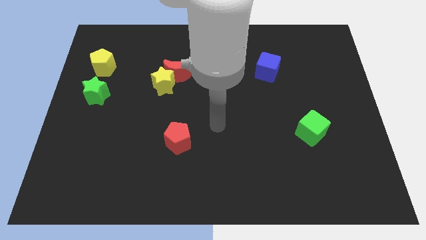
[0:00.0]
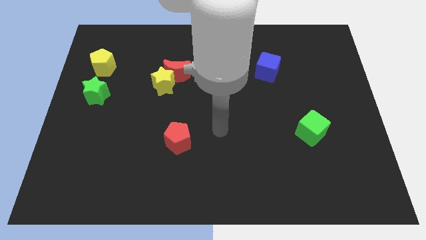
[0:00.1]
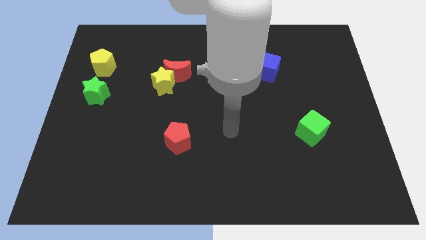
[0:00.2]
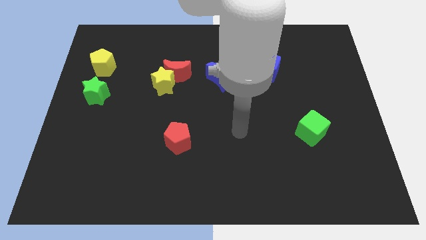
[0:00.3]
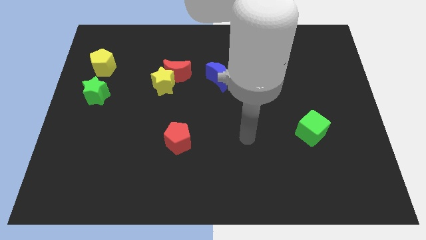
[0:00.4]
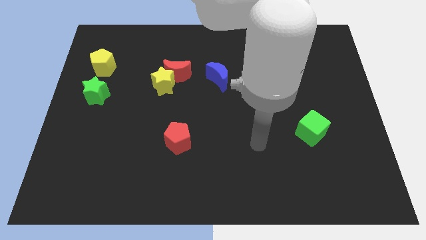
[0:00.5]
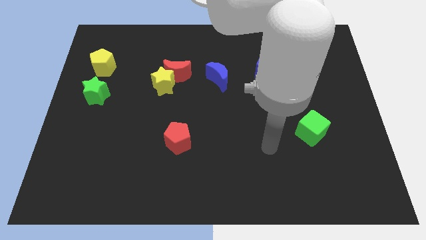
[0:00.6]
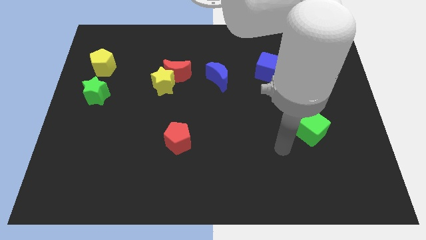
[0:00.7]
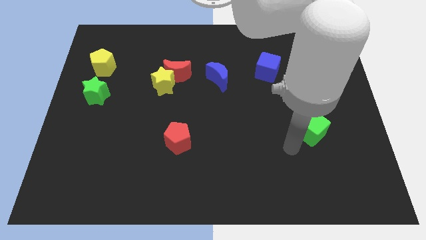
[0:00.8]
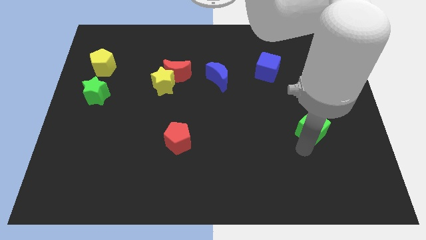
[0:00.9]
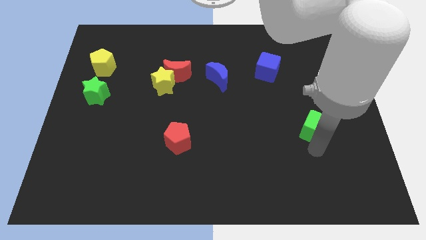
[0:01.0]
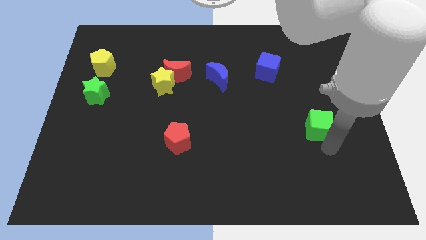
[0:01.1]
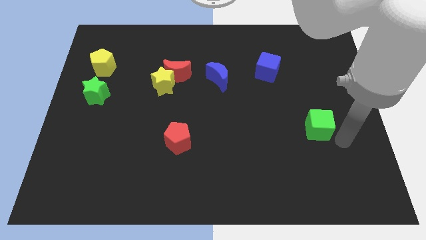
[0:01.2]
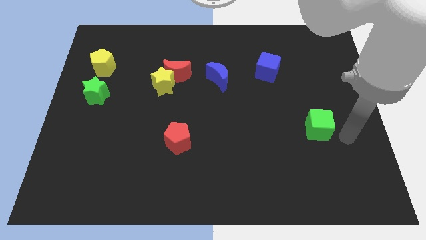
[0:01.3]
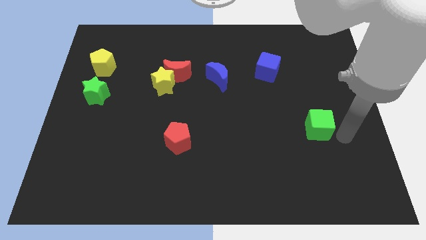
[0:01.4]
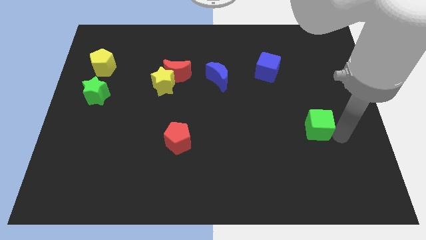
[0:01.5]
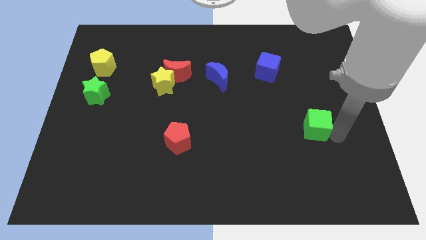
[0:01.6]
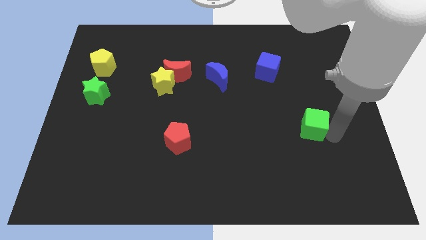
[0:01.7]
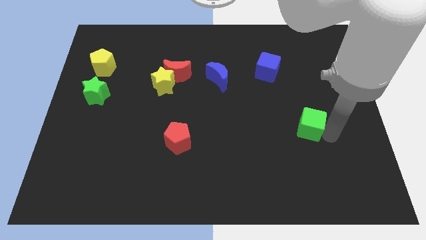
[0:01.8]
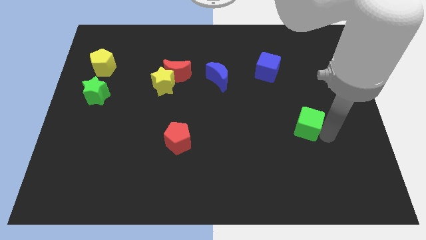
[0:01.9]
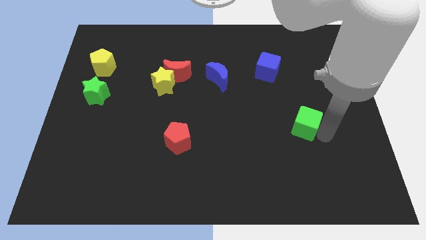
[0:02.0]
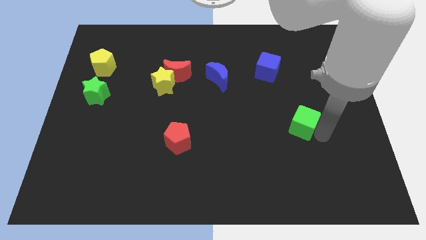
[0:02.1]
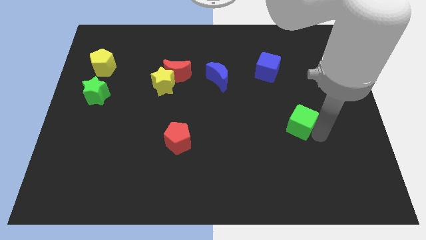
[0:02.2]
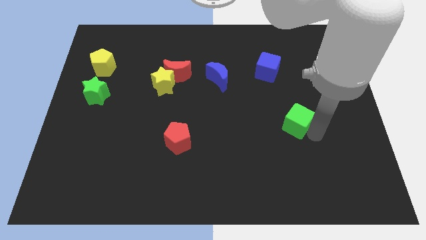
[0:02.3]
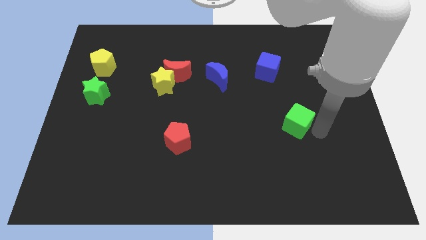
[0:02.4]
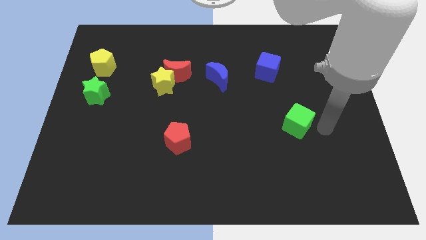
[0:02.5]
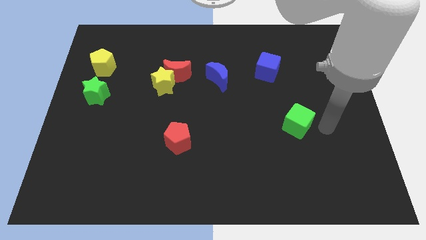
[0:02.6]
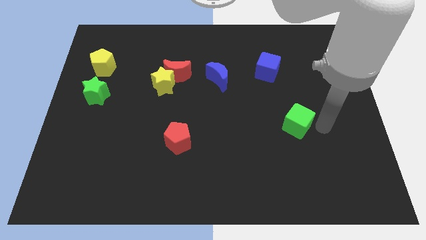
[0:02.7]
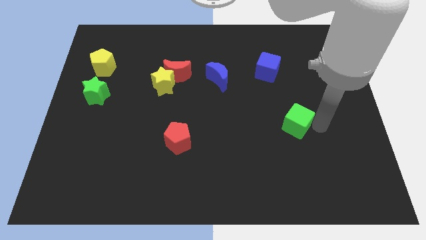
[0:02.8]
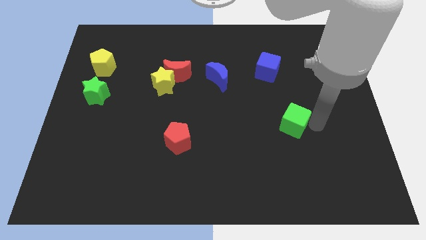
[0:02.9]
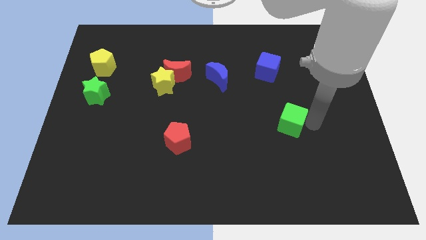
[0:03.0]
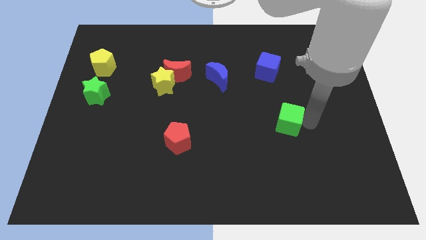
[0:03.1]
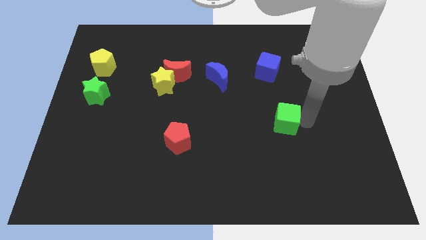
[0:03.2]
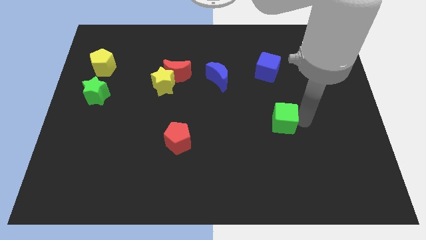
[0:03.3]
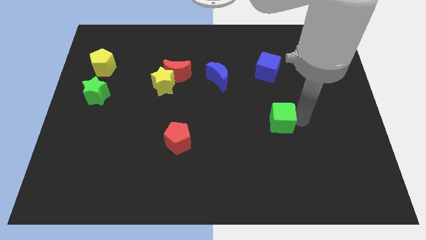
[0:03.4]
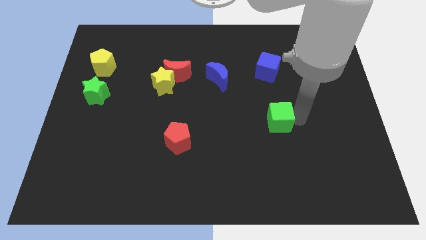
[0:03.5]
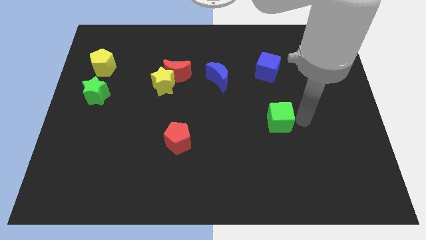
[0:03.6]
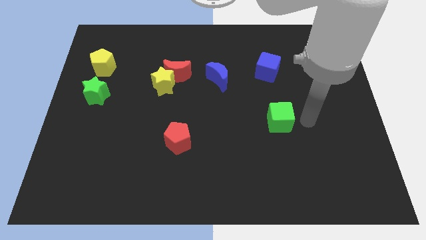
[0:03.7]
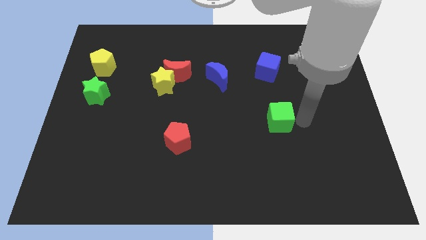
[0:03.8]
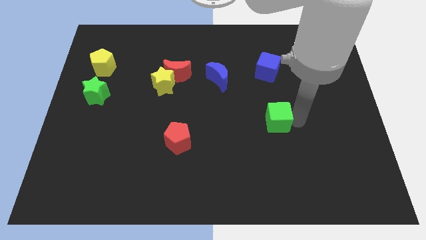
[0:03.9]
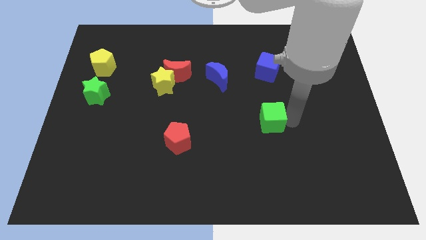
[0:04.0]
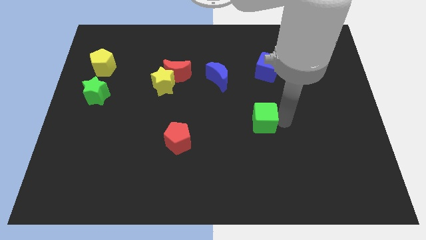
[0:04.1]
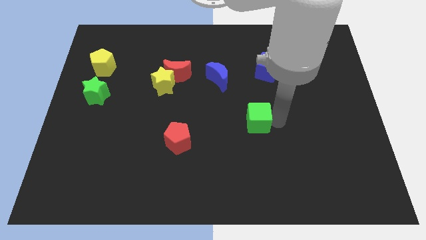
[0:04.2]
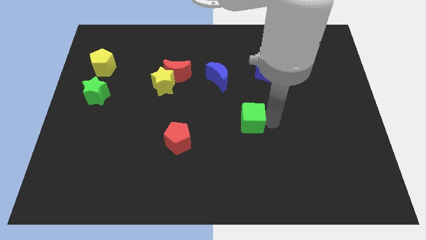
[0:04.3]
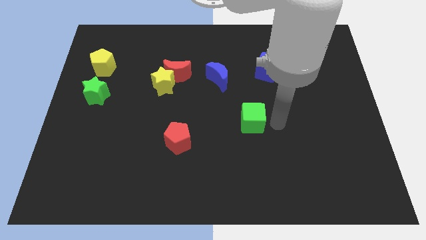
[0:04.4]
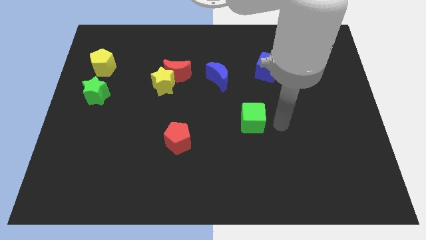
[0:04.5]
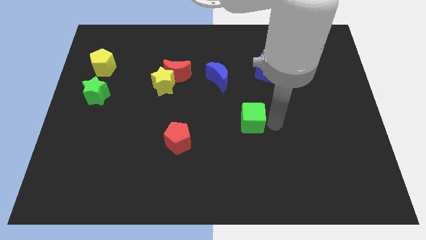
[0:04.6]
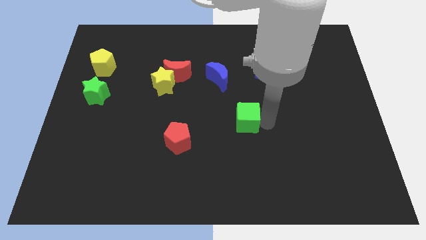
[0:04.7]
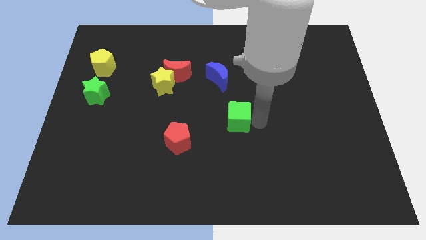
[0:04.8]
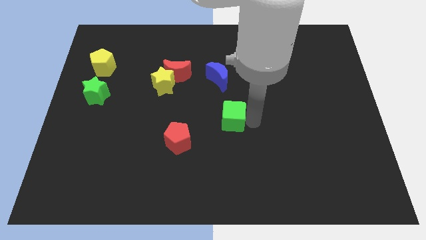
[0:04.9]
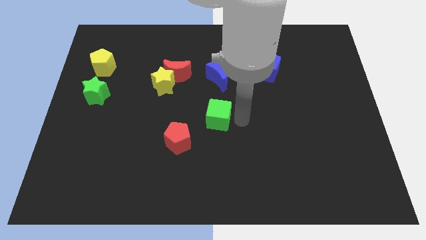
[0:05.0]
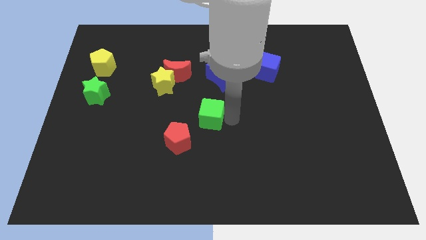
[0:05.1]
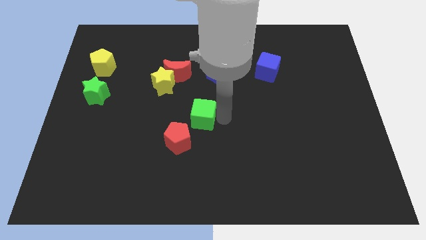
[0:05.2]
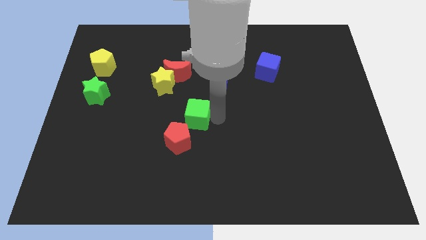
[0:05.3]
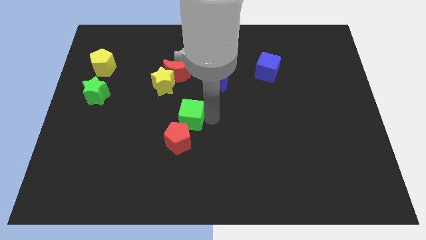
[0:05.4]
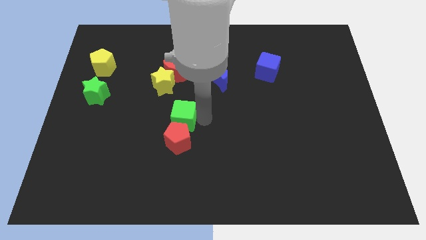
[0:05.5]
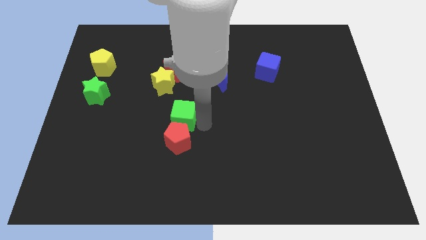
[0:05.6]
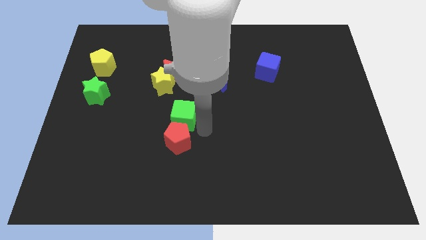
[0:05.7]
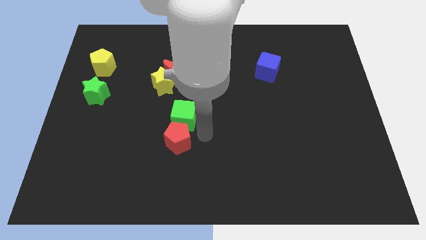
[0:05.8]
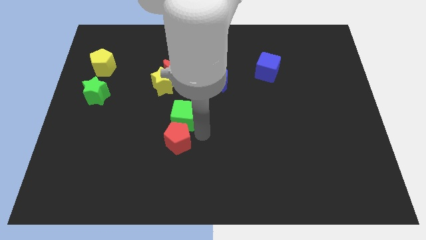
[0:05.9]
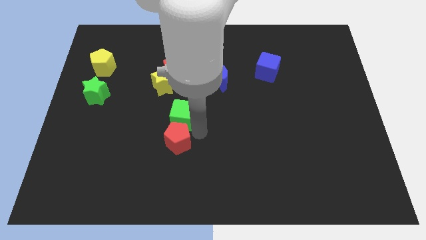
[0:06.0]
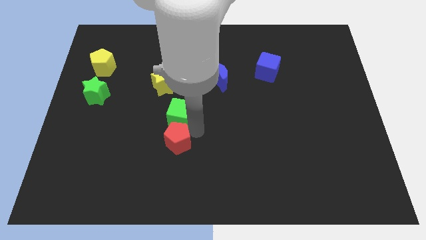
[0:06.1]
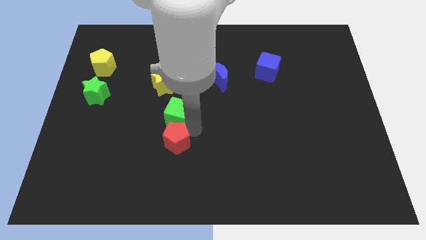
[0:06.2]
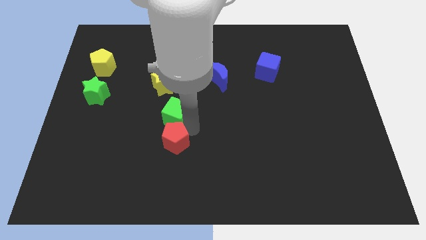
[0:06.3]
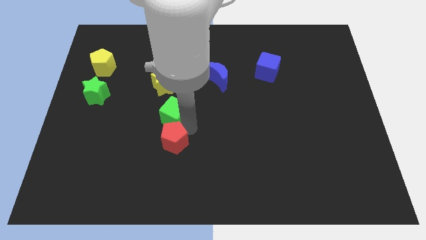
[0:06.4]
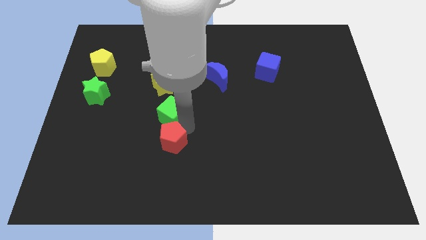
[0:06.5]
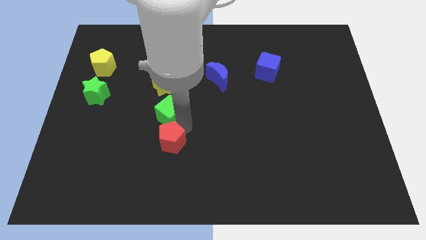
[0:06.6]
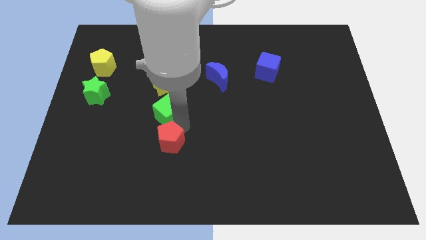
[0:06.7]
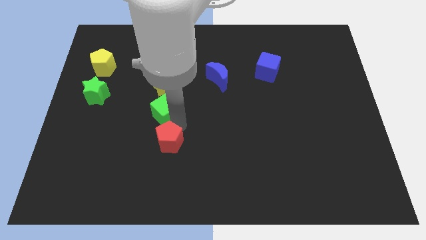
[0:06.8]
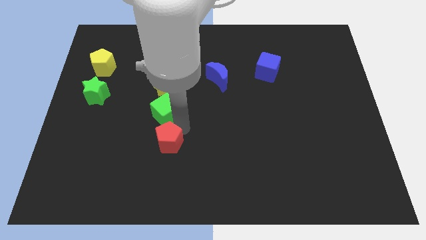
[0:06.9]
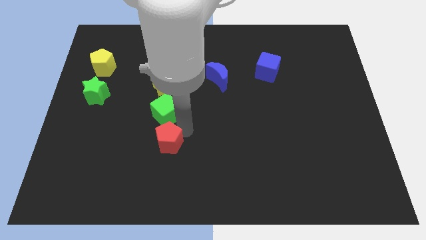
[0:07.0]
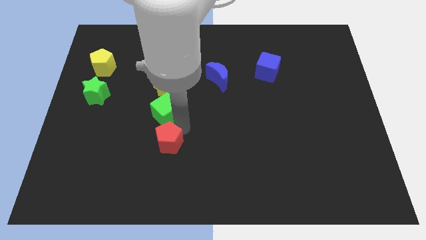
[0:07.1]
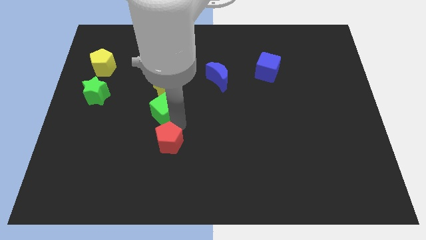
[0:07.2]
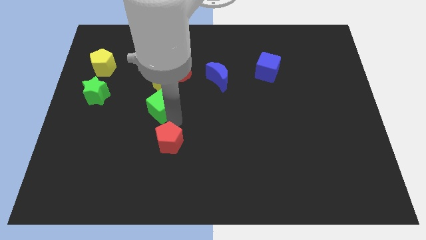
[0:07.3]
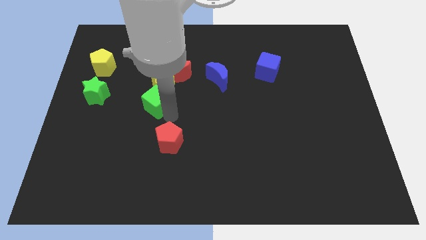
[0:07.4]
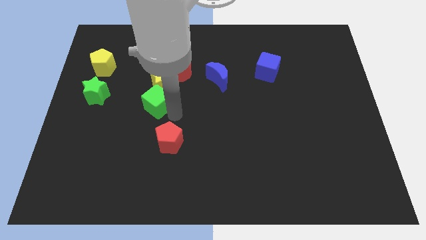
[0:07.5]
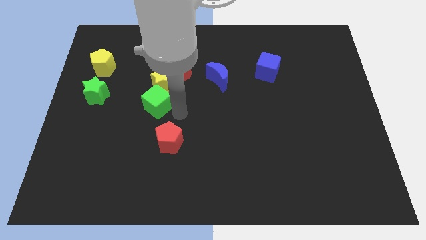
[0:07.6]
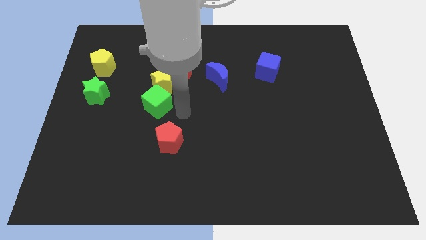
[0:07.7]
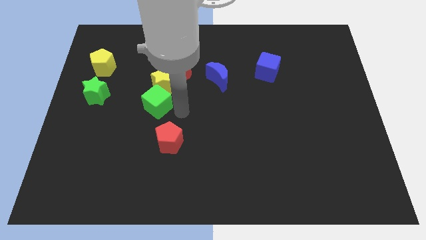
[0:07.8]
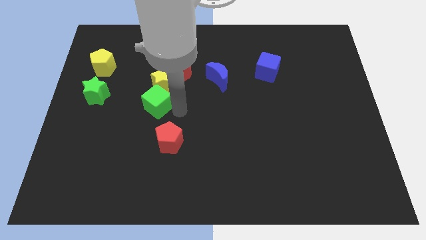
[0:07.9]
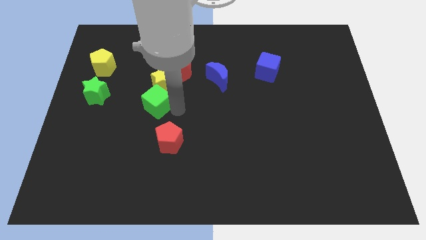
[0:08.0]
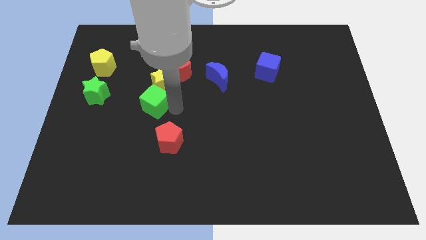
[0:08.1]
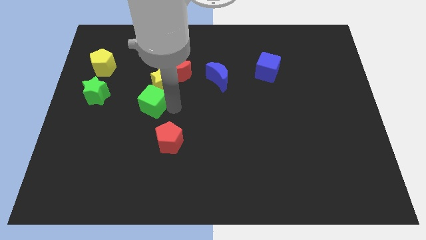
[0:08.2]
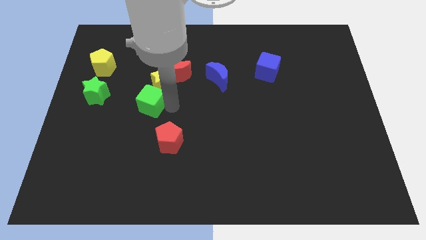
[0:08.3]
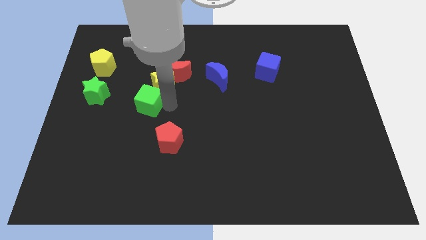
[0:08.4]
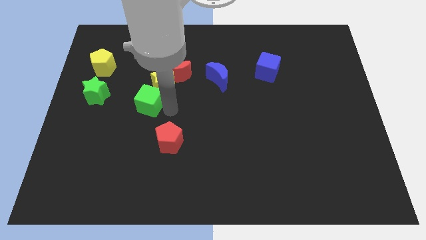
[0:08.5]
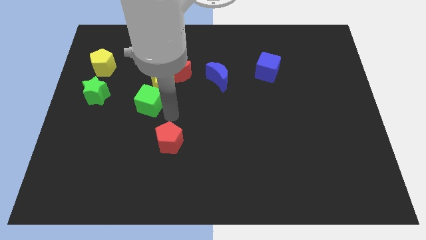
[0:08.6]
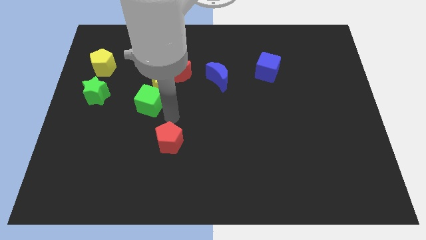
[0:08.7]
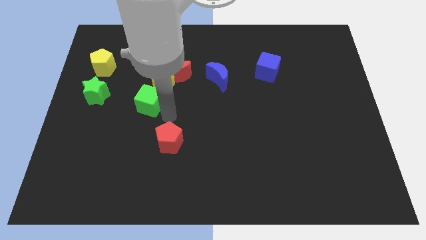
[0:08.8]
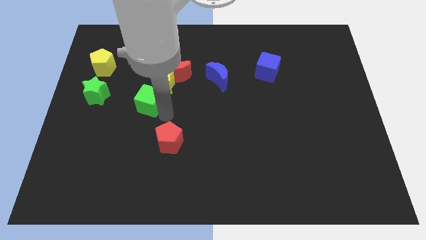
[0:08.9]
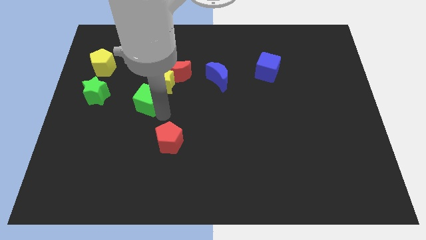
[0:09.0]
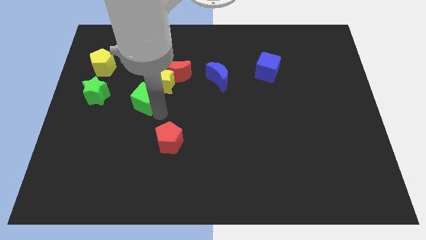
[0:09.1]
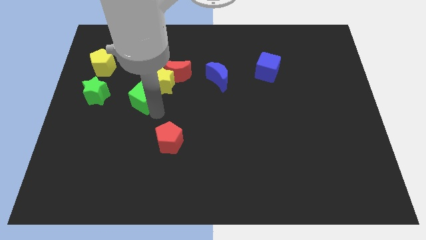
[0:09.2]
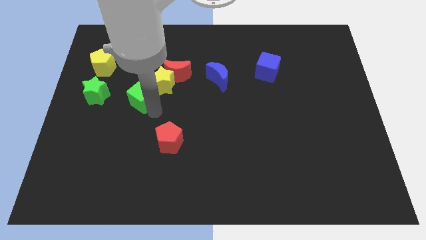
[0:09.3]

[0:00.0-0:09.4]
move the green cube to the left of the yellow star
